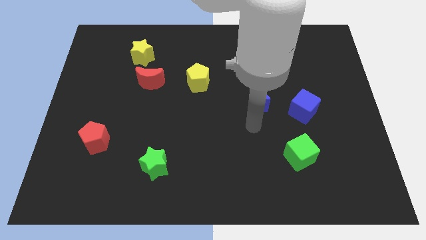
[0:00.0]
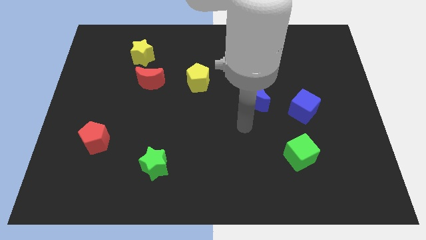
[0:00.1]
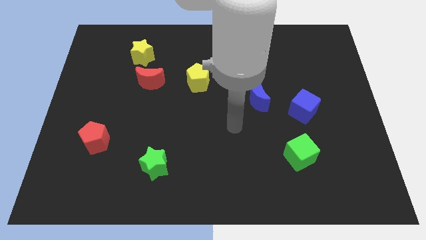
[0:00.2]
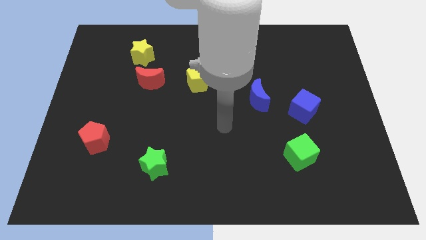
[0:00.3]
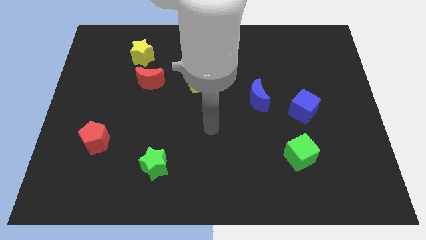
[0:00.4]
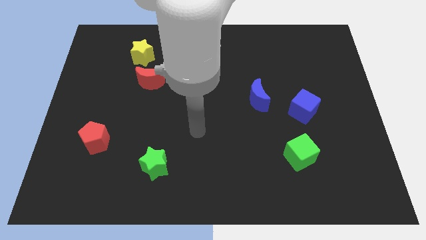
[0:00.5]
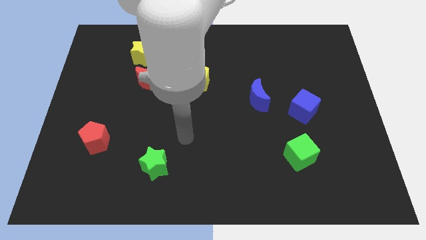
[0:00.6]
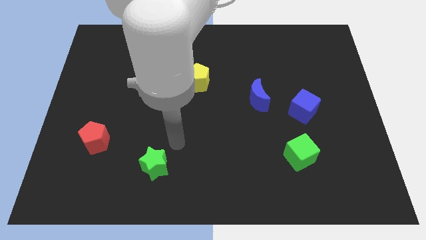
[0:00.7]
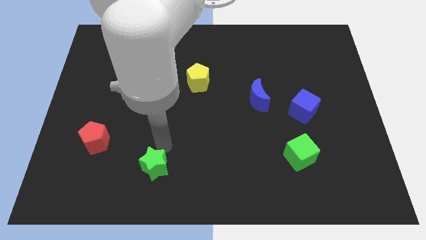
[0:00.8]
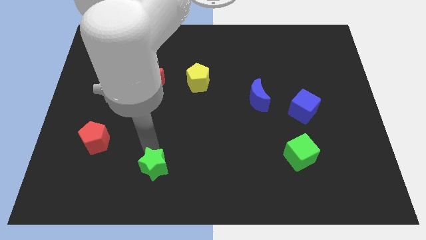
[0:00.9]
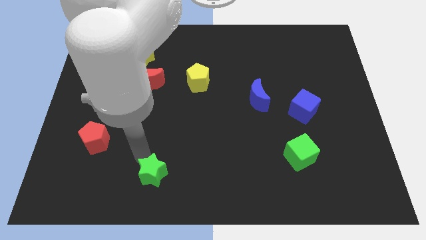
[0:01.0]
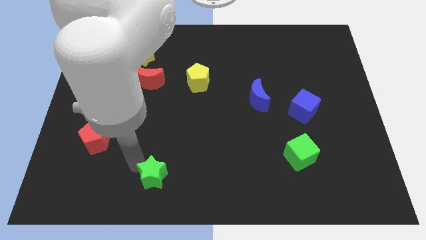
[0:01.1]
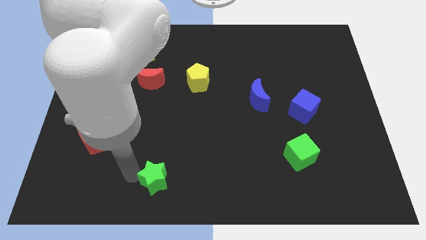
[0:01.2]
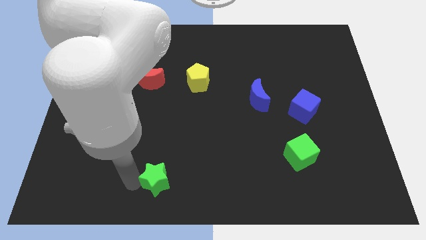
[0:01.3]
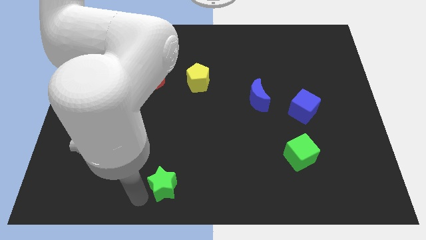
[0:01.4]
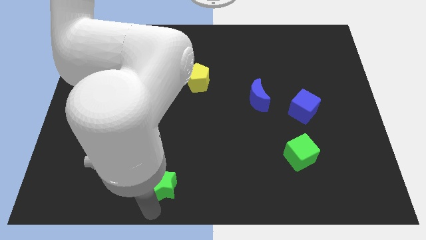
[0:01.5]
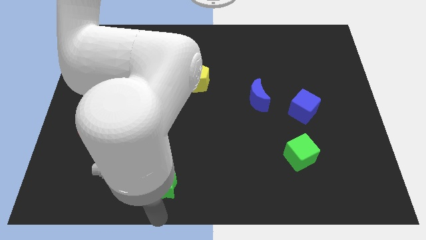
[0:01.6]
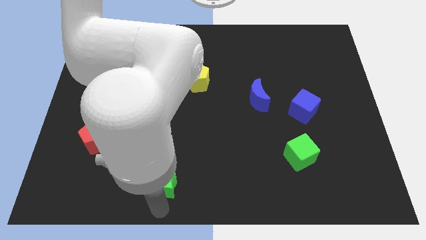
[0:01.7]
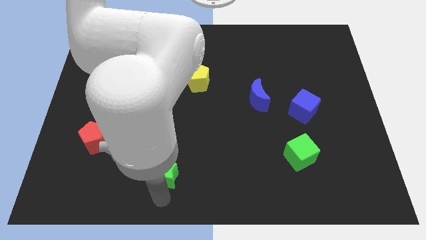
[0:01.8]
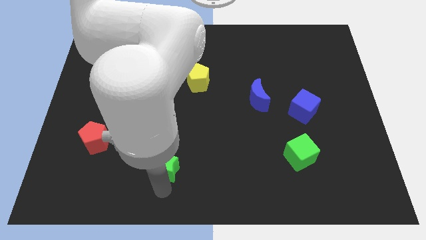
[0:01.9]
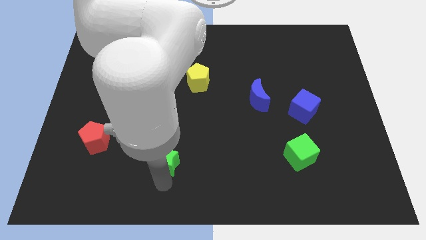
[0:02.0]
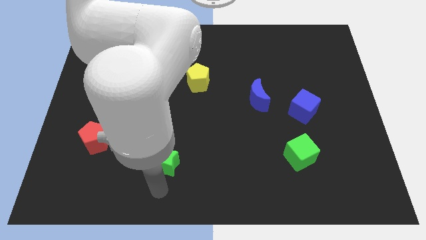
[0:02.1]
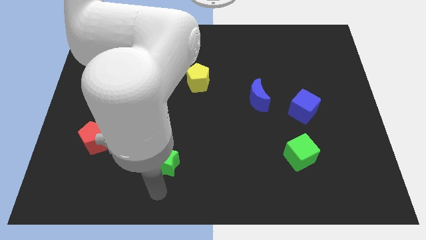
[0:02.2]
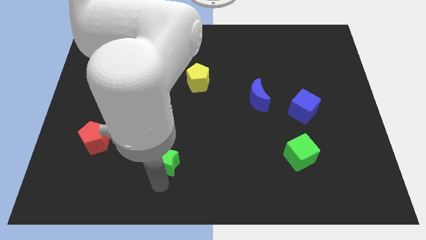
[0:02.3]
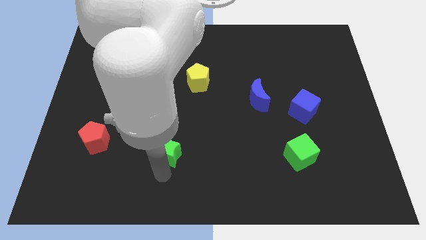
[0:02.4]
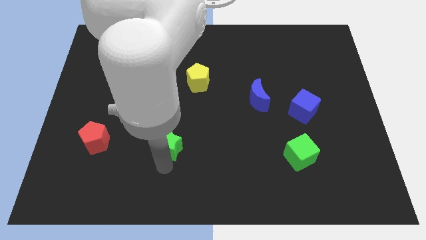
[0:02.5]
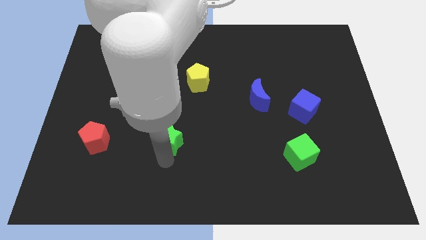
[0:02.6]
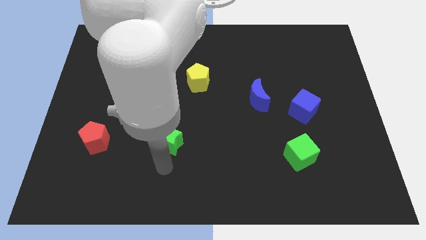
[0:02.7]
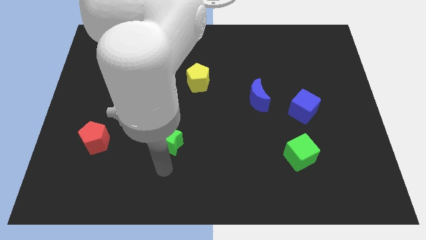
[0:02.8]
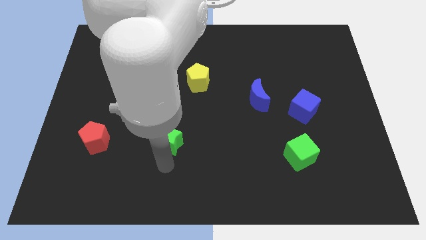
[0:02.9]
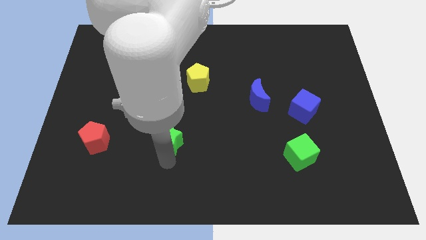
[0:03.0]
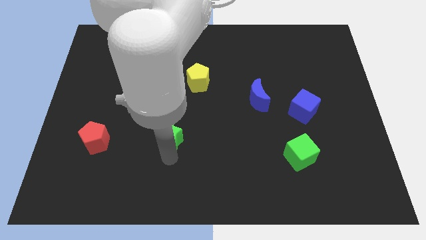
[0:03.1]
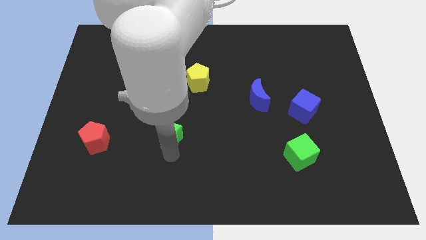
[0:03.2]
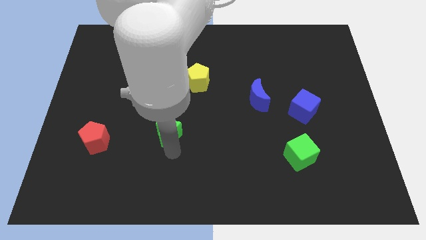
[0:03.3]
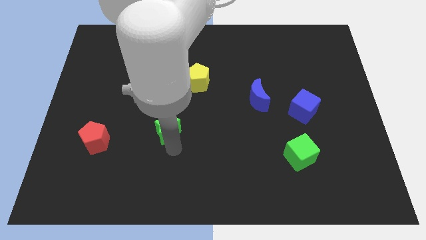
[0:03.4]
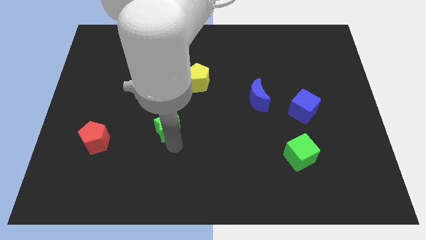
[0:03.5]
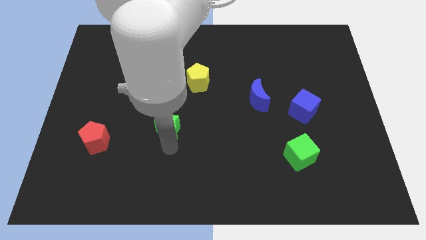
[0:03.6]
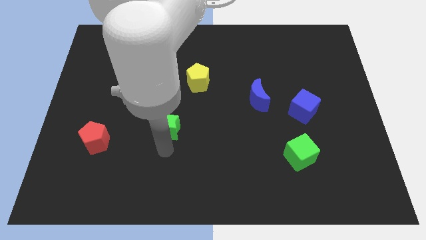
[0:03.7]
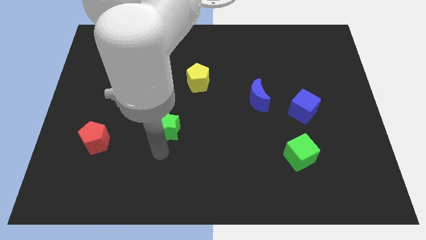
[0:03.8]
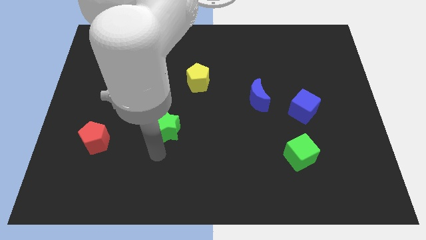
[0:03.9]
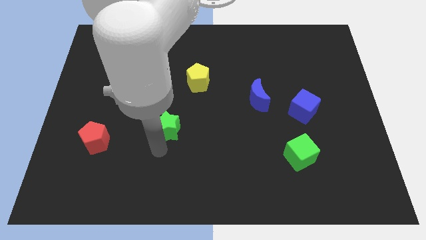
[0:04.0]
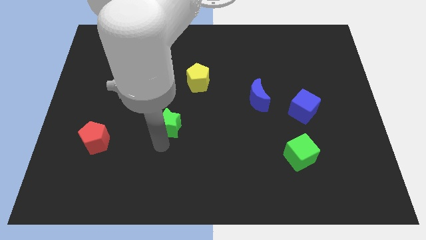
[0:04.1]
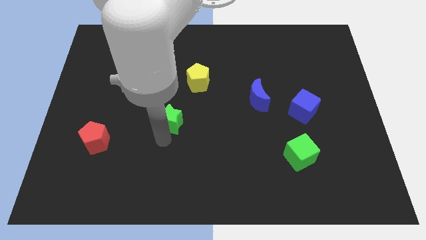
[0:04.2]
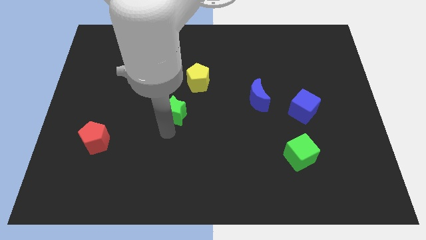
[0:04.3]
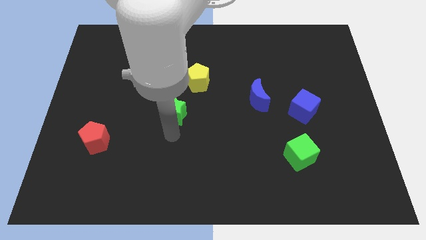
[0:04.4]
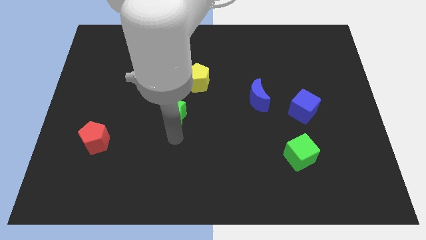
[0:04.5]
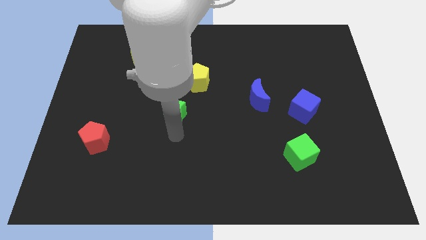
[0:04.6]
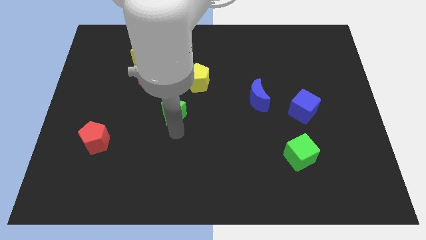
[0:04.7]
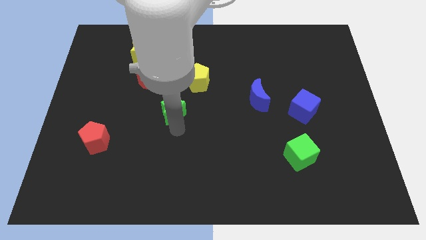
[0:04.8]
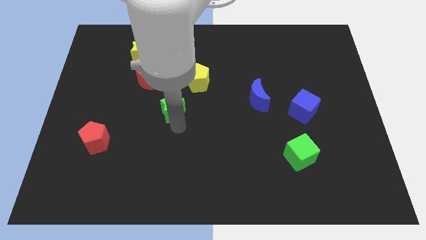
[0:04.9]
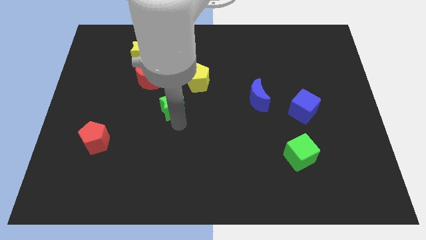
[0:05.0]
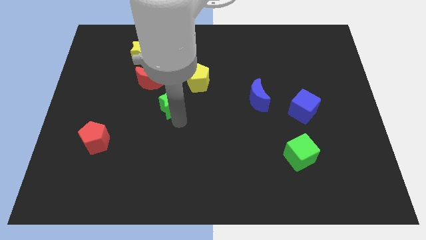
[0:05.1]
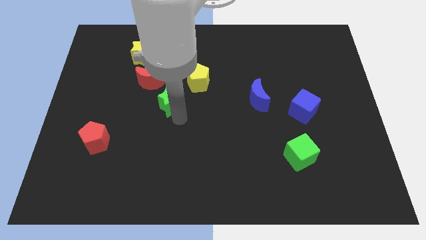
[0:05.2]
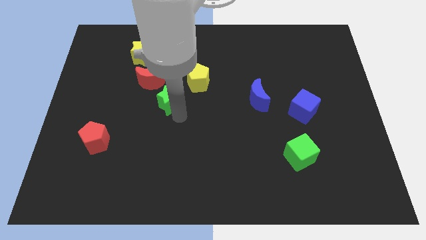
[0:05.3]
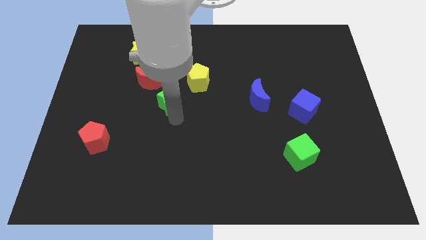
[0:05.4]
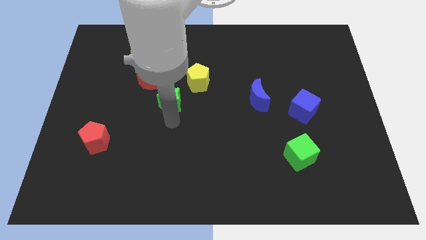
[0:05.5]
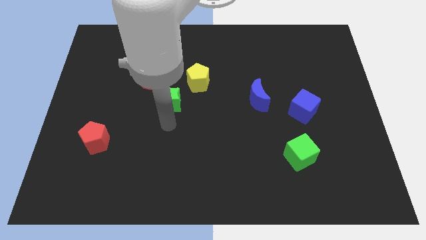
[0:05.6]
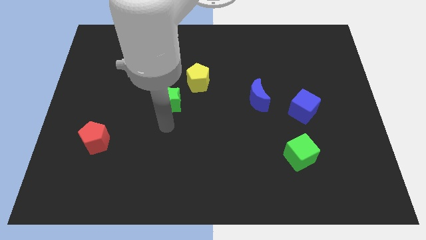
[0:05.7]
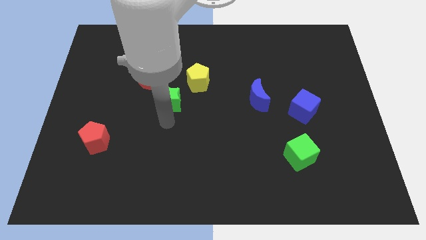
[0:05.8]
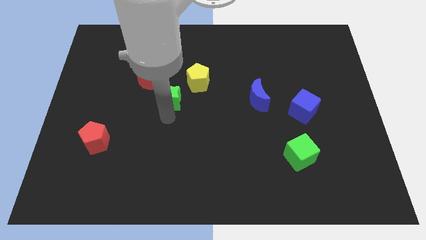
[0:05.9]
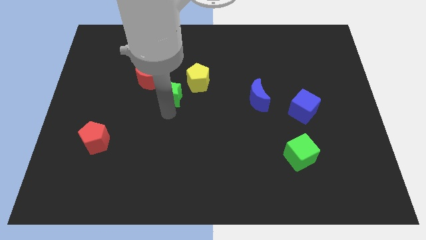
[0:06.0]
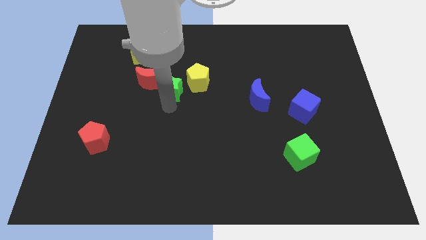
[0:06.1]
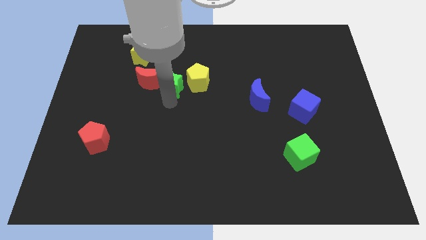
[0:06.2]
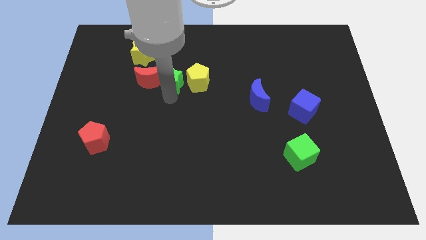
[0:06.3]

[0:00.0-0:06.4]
move the green star diagonally up and to the right of the red moon
